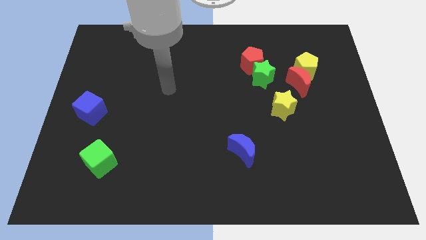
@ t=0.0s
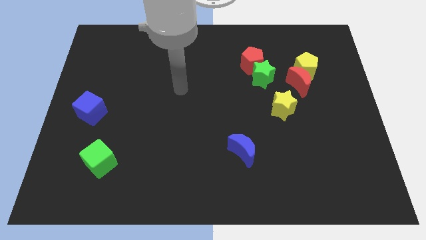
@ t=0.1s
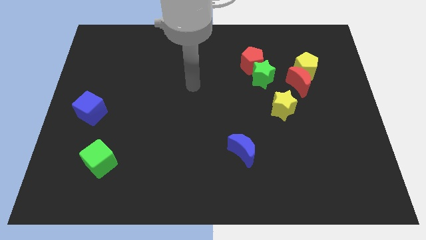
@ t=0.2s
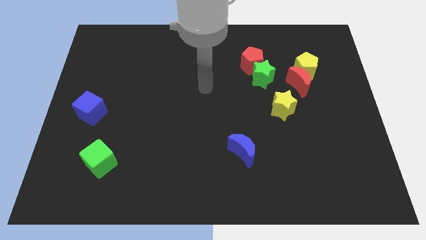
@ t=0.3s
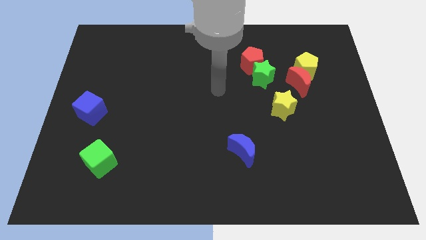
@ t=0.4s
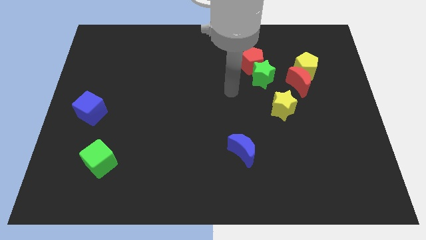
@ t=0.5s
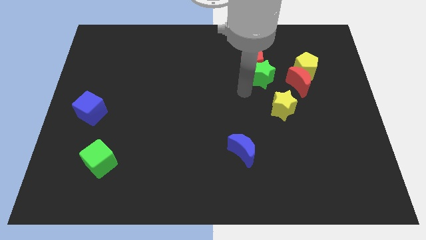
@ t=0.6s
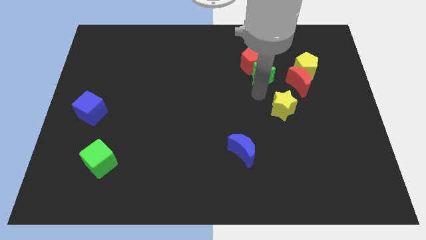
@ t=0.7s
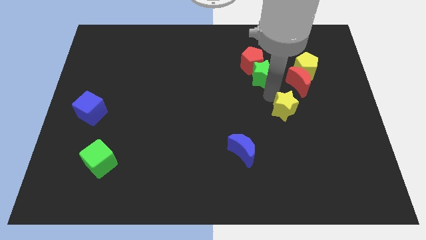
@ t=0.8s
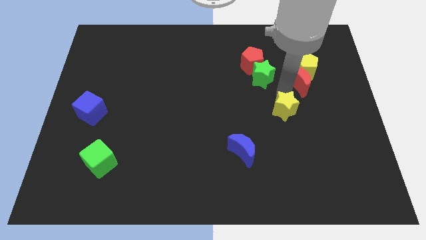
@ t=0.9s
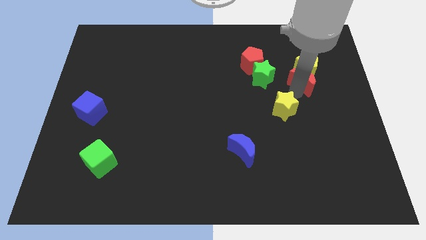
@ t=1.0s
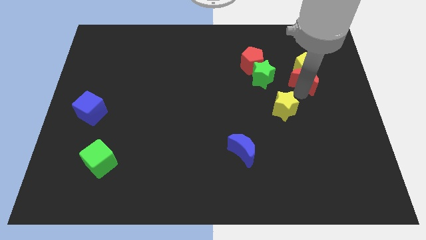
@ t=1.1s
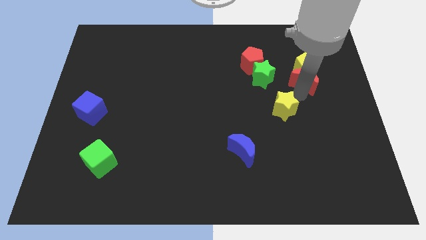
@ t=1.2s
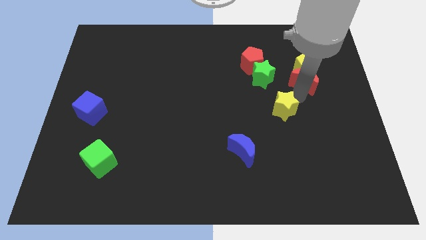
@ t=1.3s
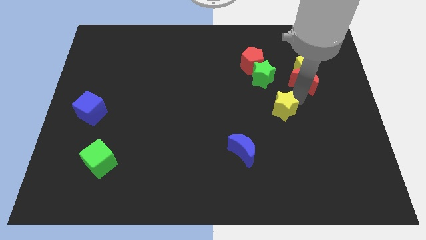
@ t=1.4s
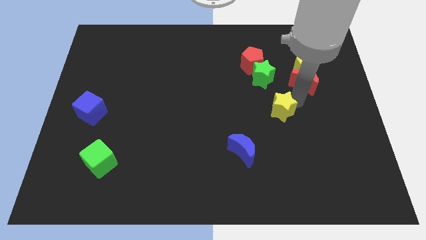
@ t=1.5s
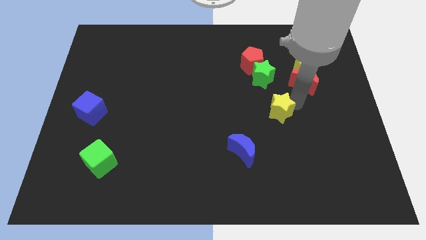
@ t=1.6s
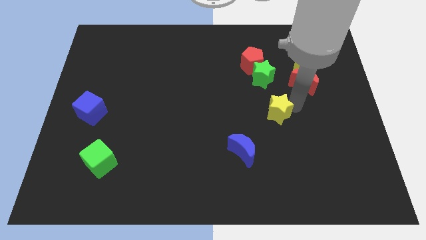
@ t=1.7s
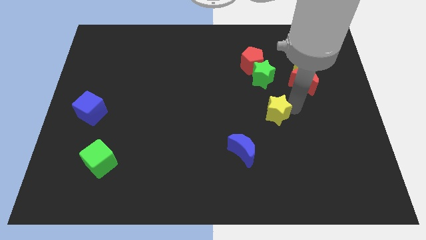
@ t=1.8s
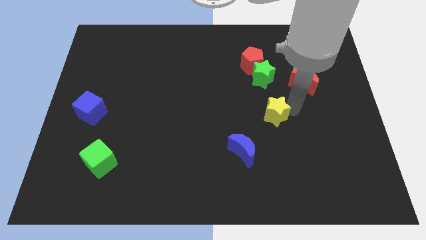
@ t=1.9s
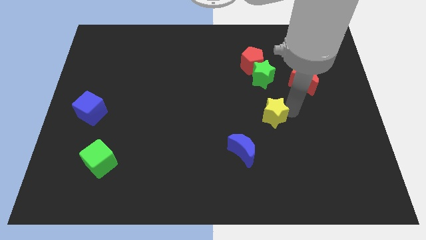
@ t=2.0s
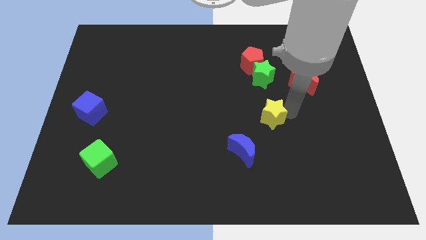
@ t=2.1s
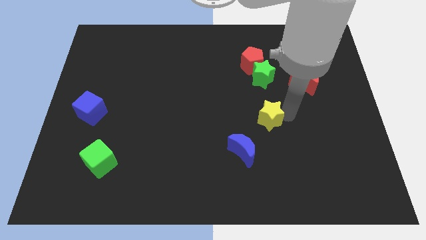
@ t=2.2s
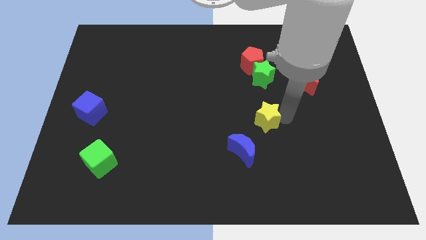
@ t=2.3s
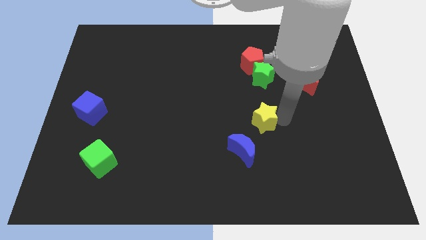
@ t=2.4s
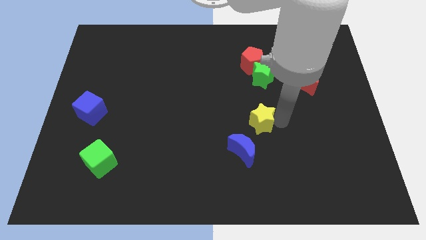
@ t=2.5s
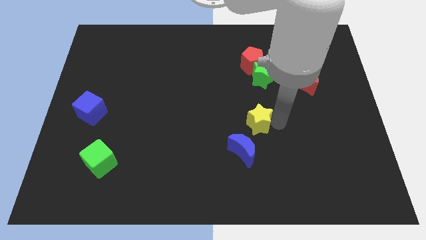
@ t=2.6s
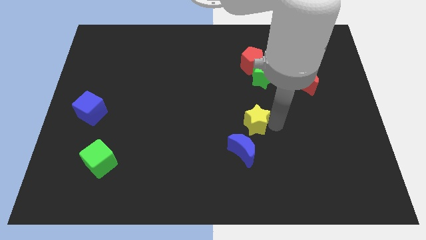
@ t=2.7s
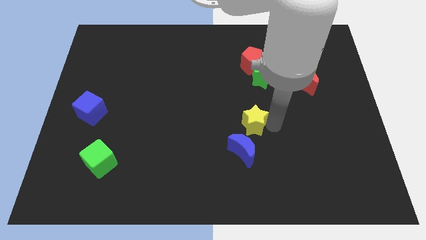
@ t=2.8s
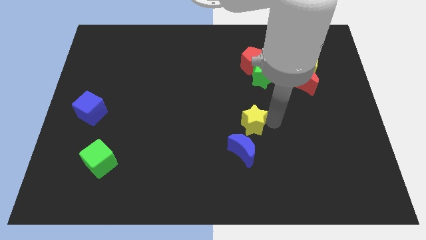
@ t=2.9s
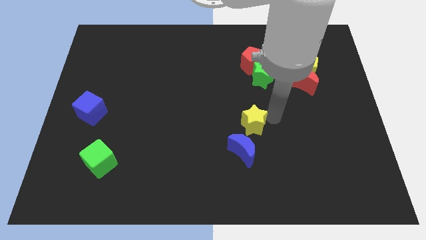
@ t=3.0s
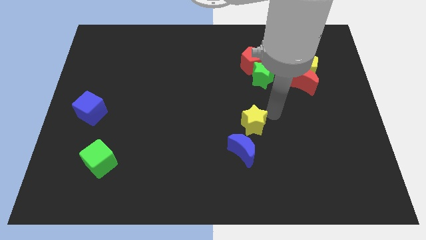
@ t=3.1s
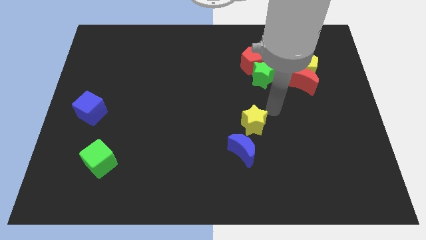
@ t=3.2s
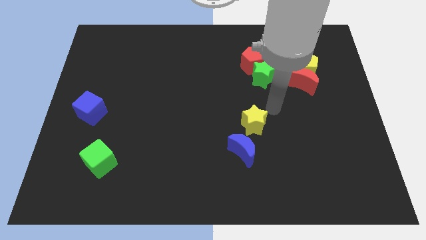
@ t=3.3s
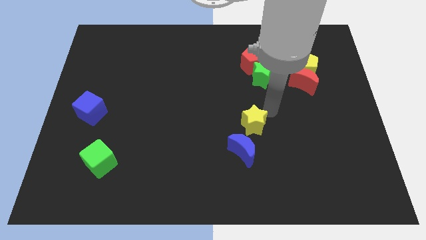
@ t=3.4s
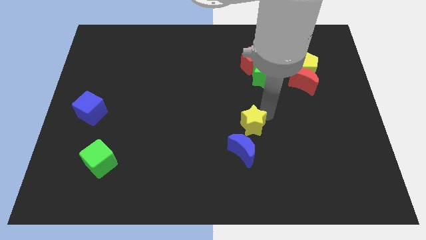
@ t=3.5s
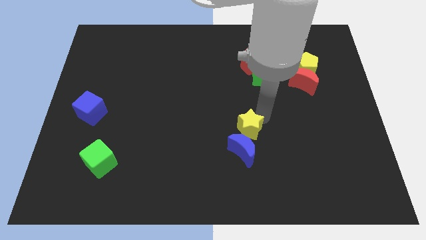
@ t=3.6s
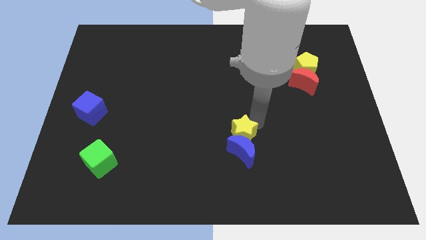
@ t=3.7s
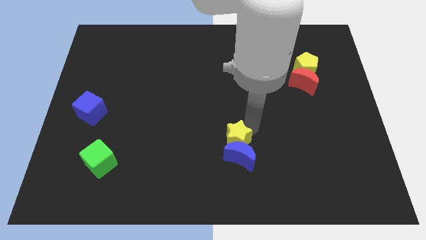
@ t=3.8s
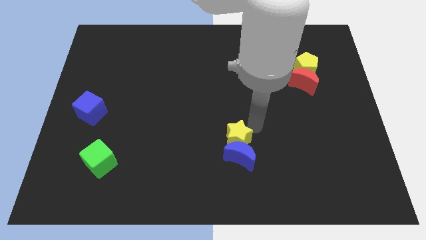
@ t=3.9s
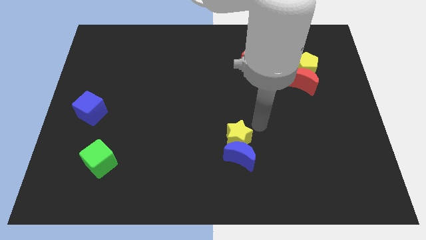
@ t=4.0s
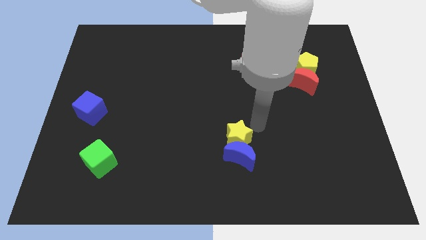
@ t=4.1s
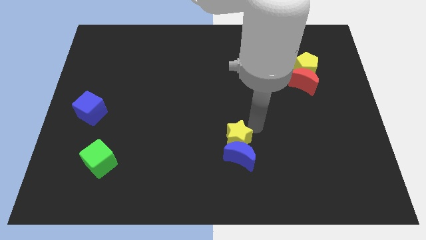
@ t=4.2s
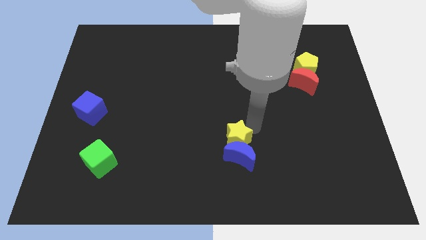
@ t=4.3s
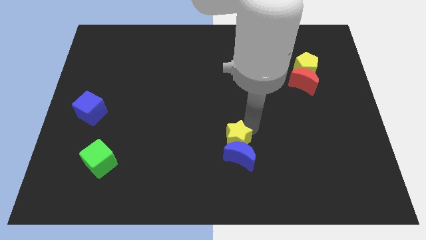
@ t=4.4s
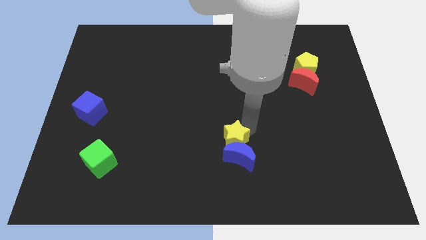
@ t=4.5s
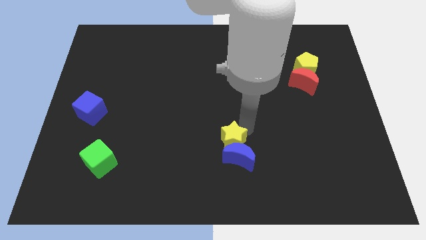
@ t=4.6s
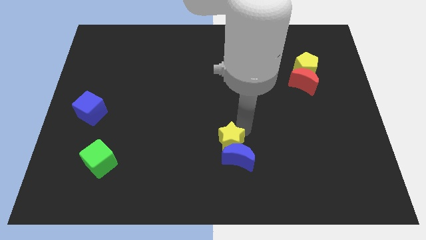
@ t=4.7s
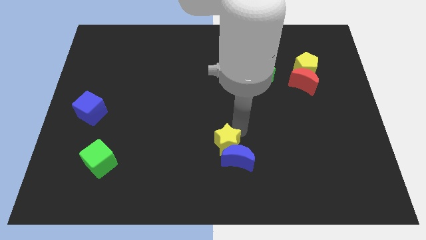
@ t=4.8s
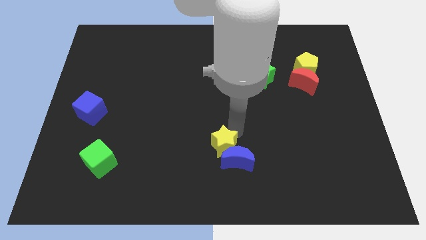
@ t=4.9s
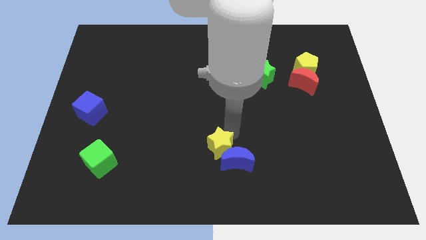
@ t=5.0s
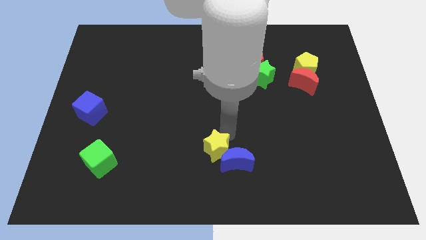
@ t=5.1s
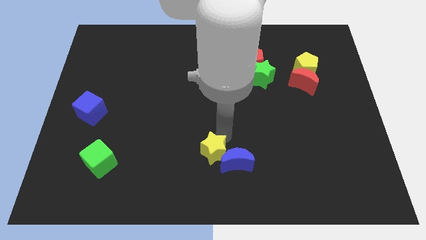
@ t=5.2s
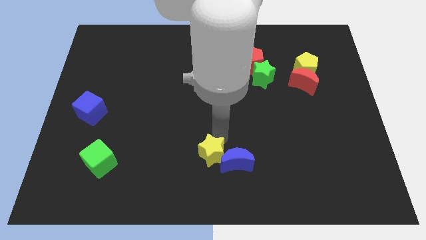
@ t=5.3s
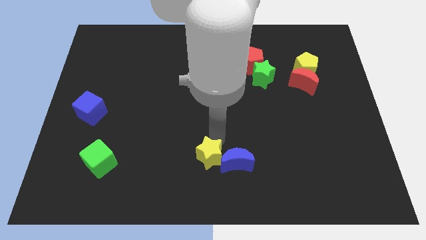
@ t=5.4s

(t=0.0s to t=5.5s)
put the yellow star to the bottom left of the blue moon

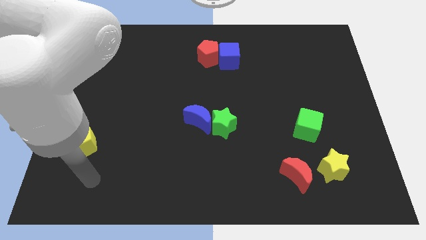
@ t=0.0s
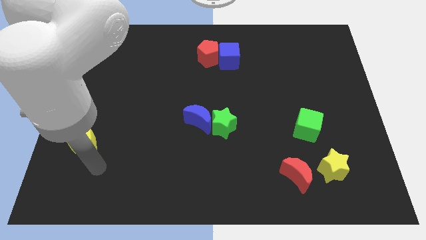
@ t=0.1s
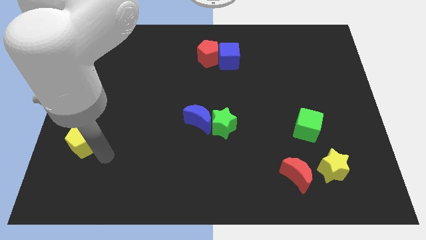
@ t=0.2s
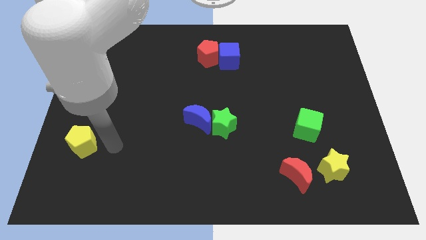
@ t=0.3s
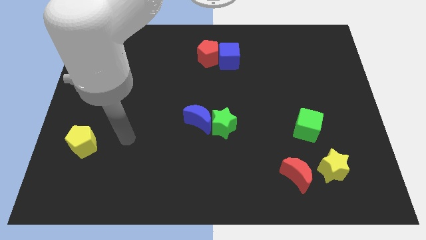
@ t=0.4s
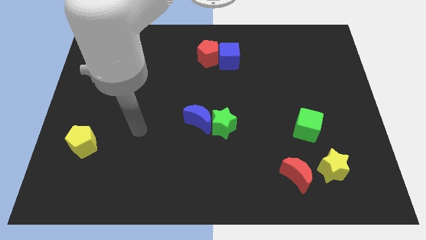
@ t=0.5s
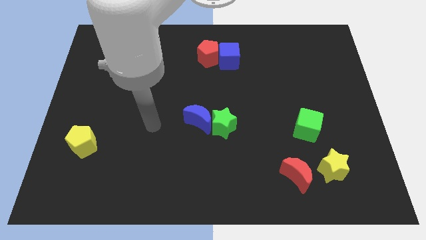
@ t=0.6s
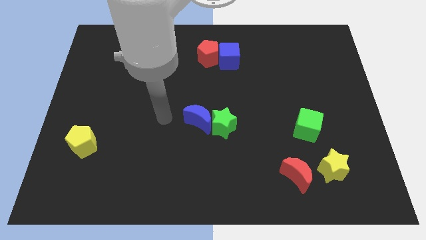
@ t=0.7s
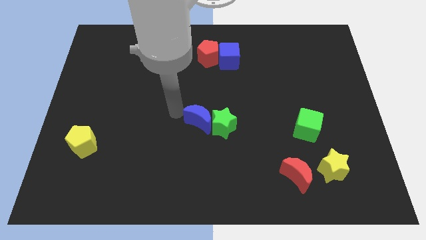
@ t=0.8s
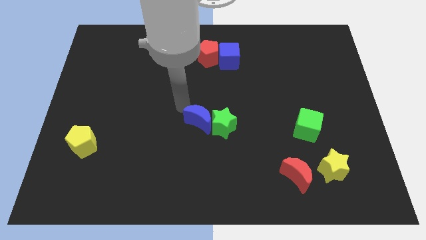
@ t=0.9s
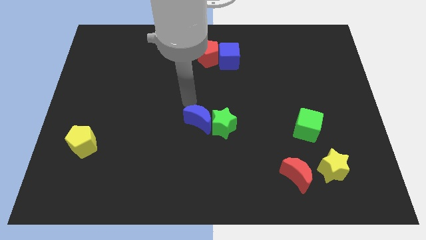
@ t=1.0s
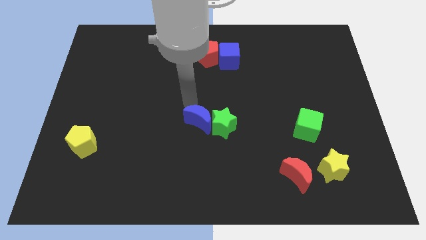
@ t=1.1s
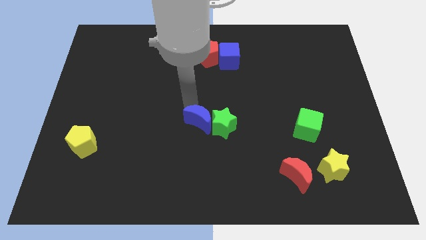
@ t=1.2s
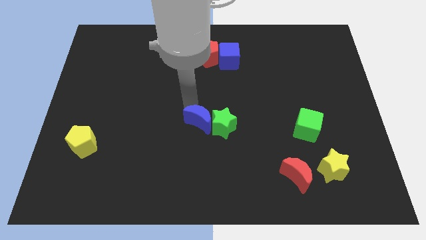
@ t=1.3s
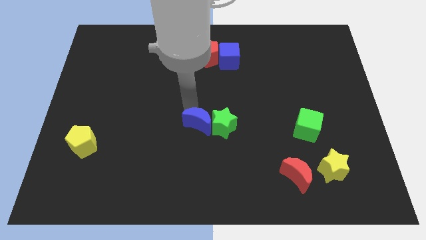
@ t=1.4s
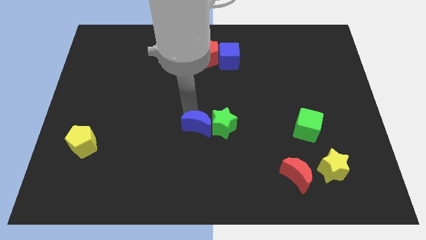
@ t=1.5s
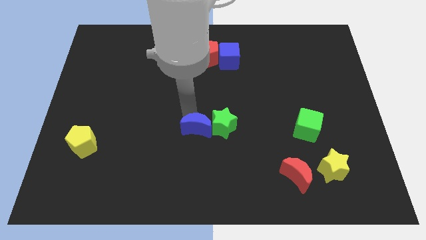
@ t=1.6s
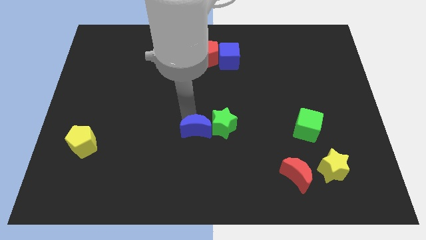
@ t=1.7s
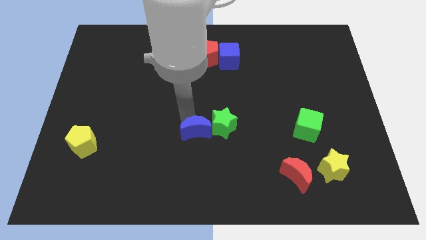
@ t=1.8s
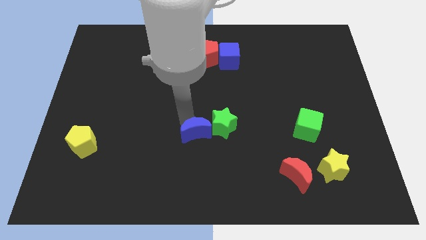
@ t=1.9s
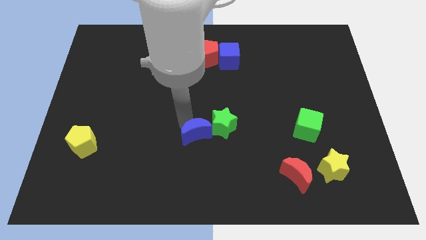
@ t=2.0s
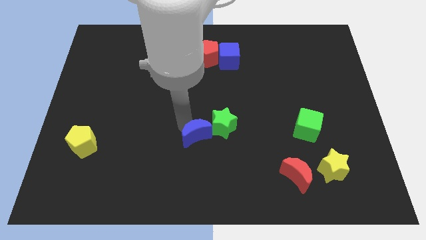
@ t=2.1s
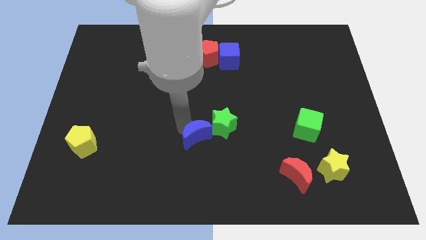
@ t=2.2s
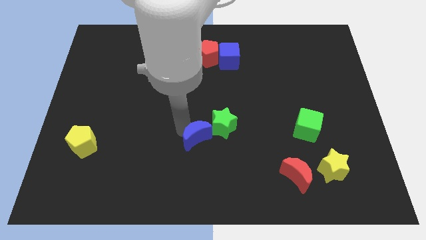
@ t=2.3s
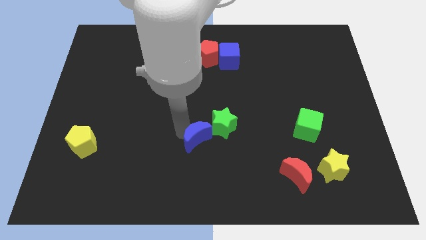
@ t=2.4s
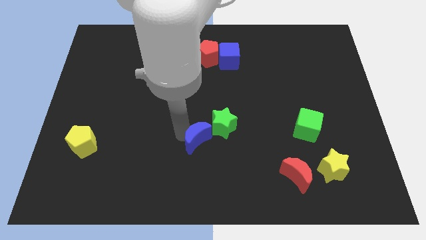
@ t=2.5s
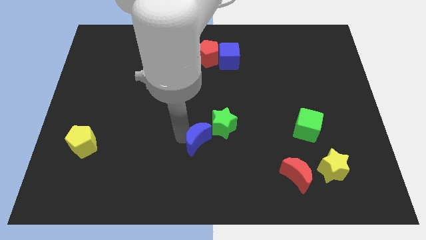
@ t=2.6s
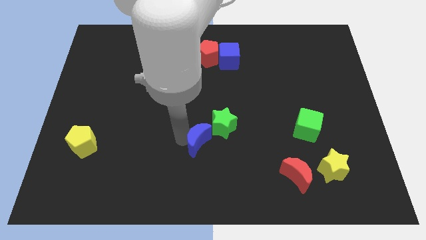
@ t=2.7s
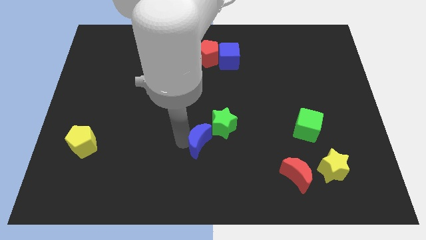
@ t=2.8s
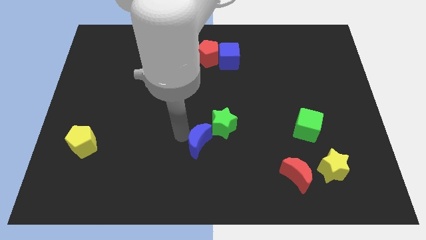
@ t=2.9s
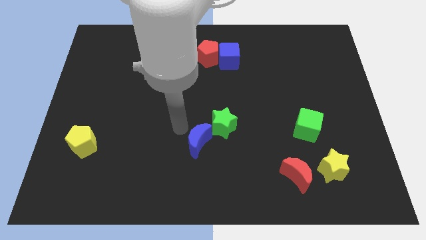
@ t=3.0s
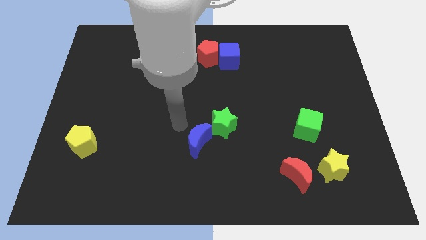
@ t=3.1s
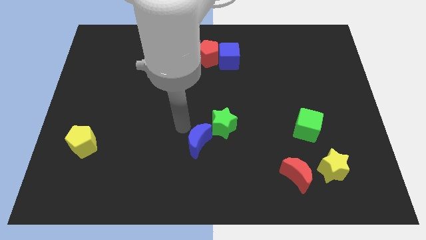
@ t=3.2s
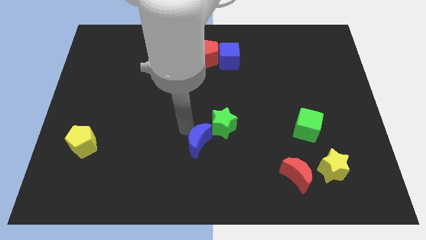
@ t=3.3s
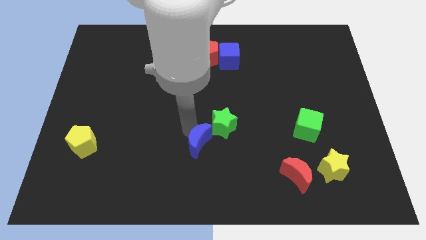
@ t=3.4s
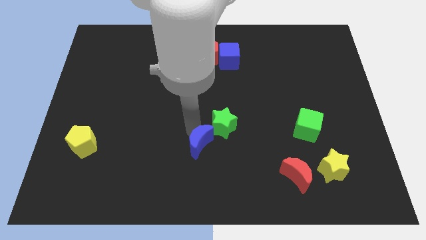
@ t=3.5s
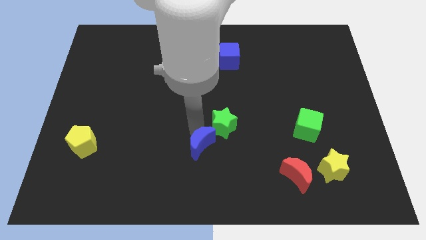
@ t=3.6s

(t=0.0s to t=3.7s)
push the blue moon to the bottom of the green star
